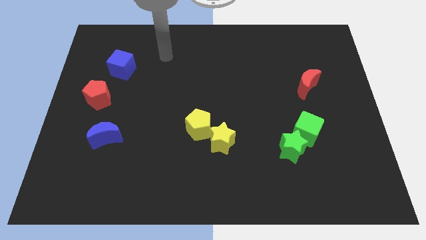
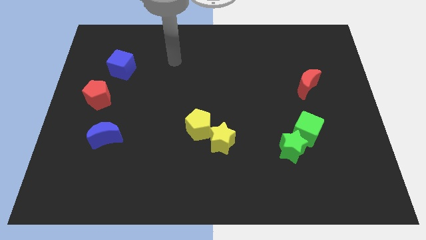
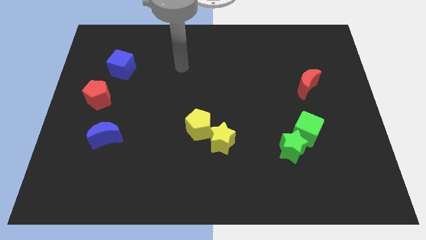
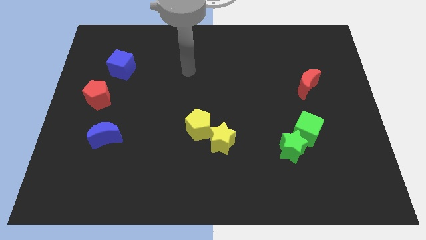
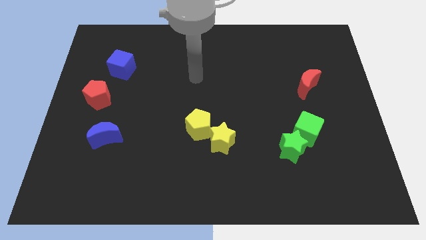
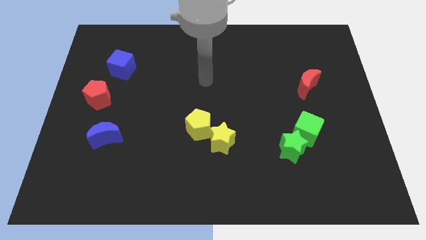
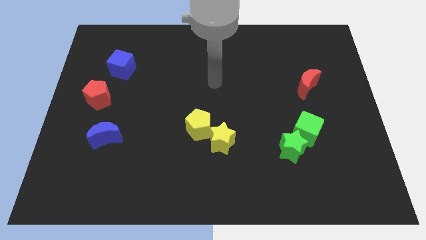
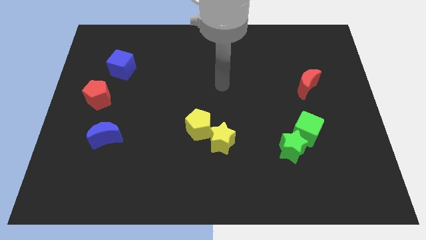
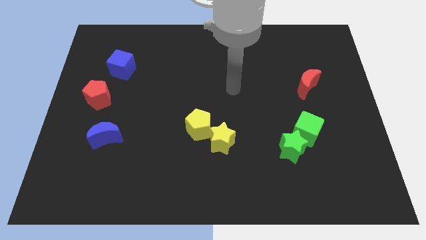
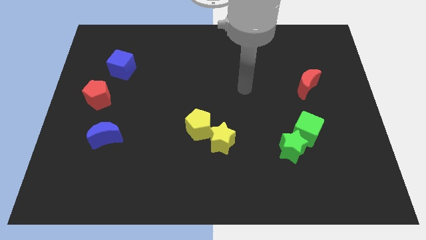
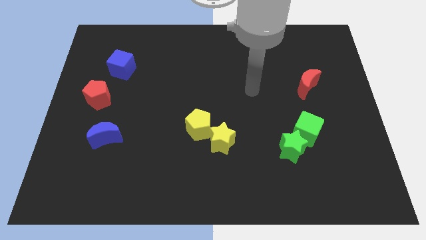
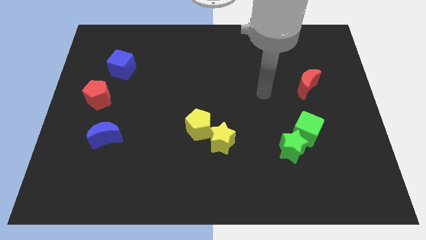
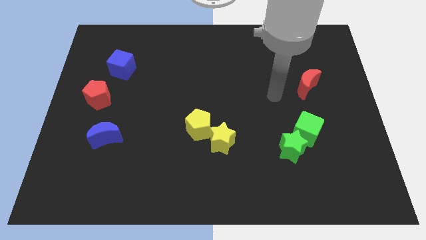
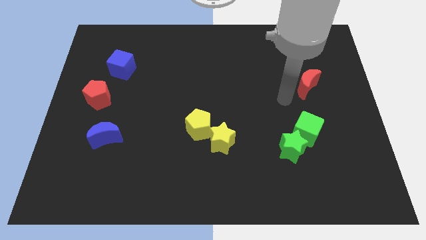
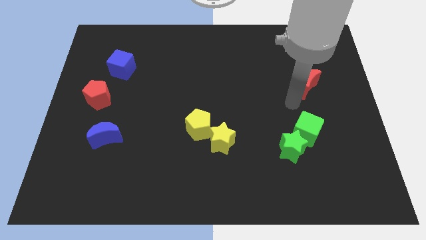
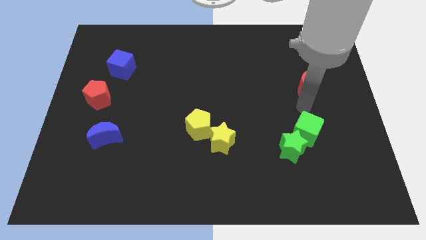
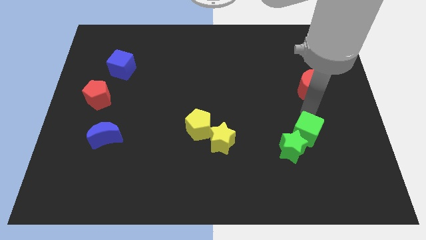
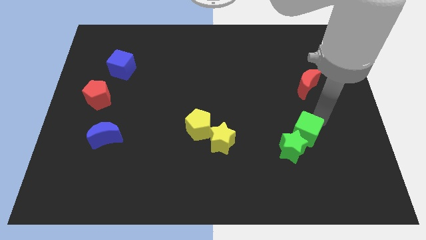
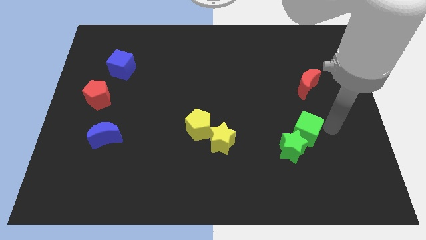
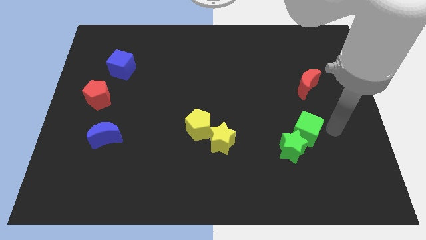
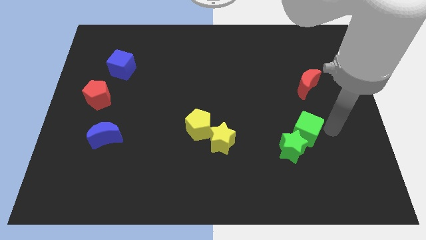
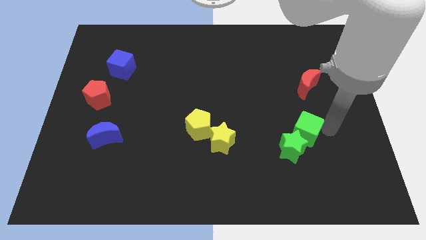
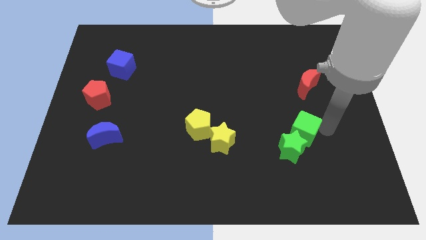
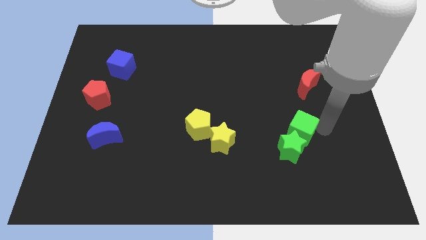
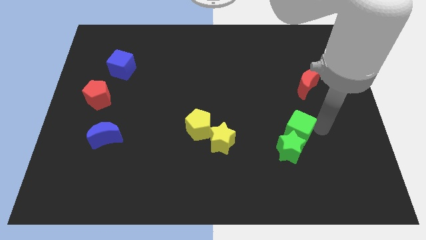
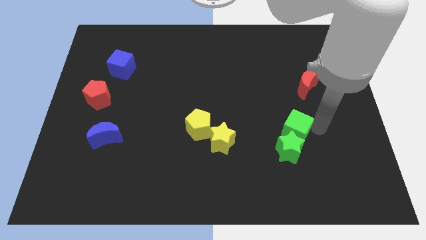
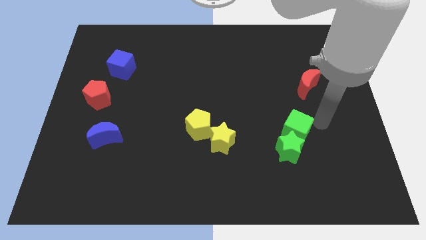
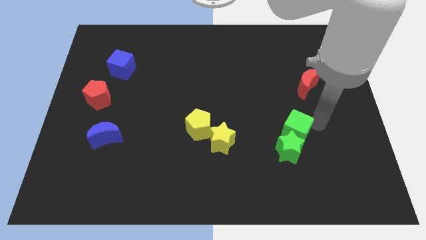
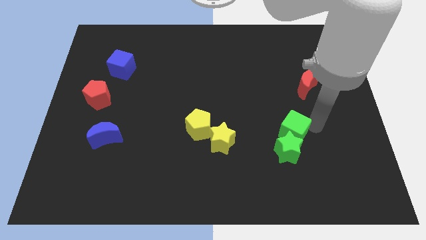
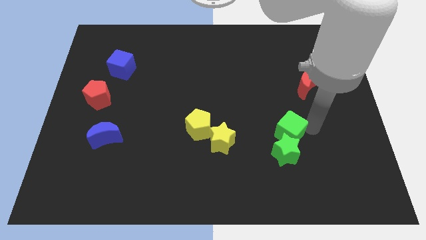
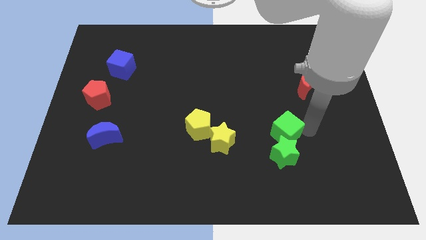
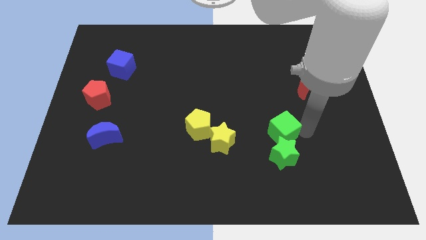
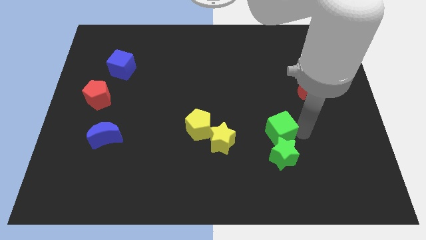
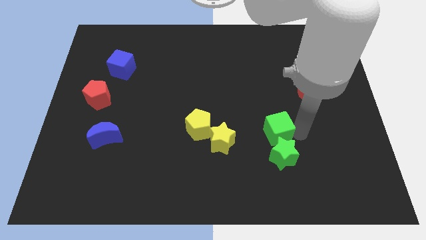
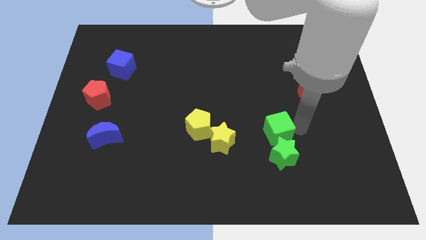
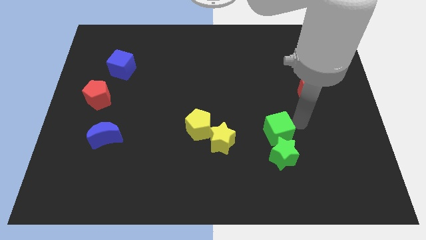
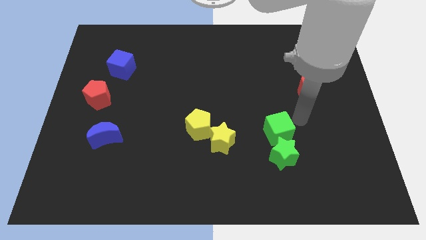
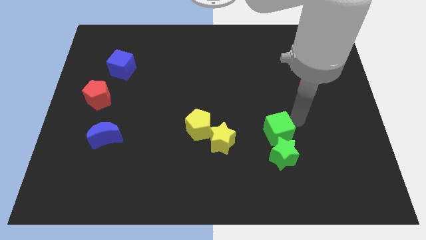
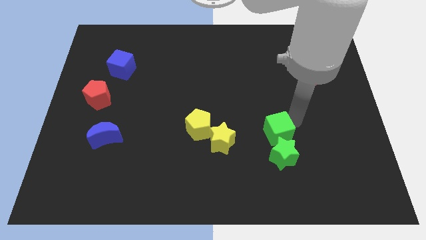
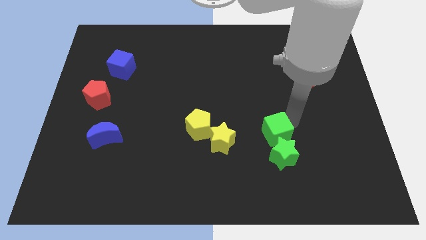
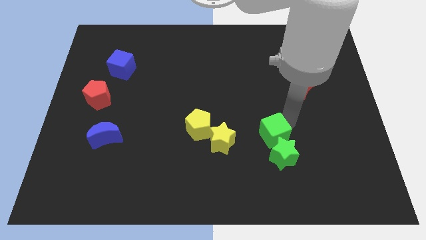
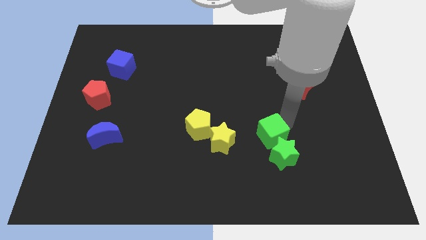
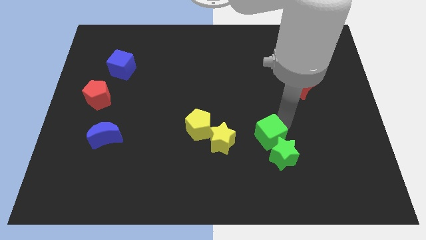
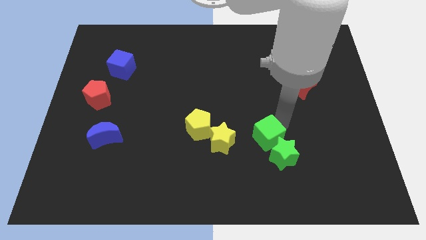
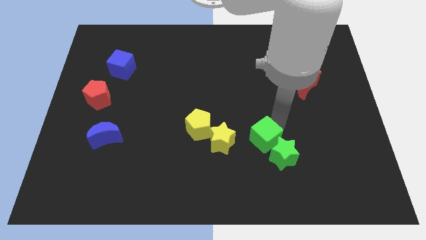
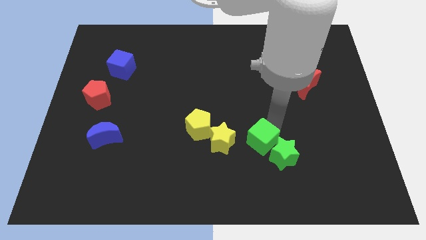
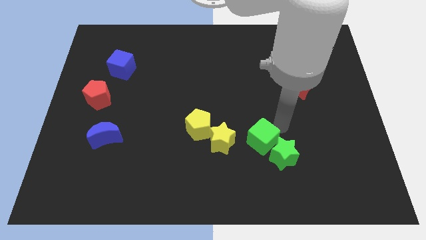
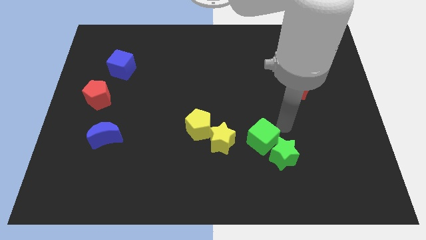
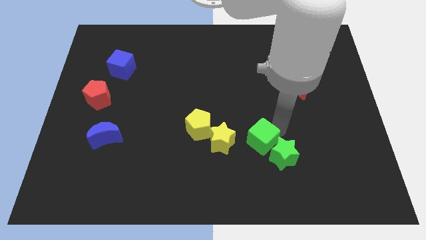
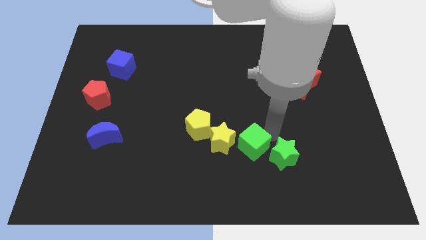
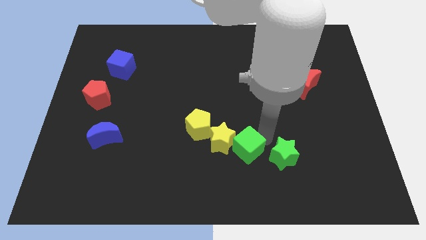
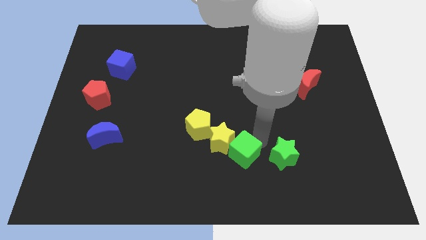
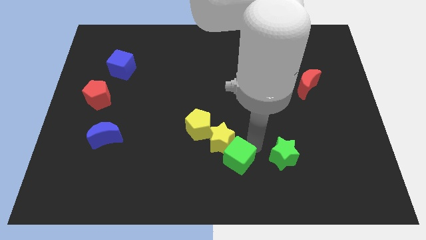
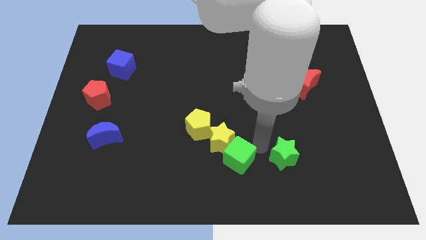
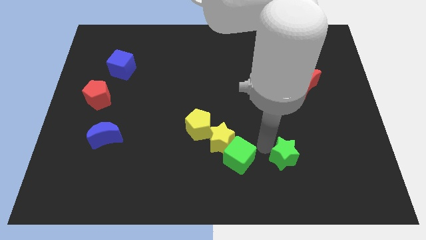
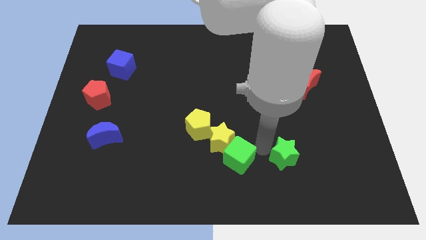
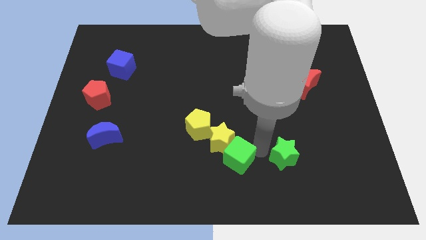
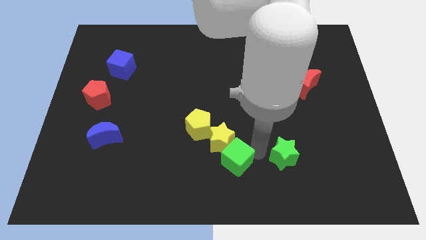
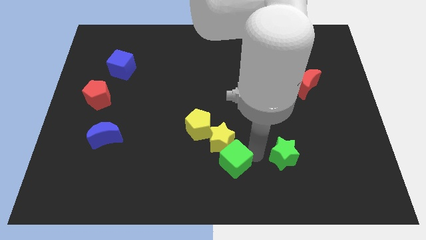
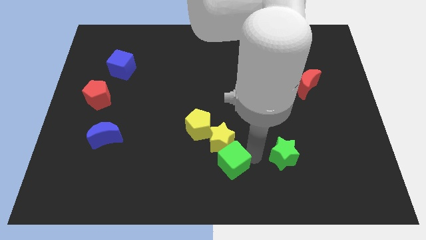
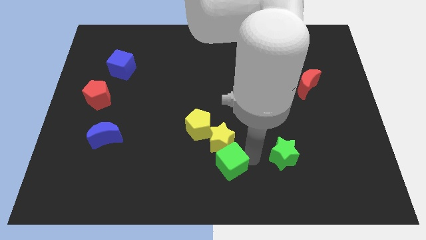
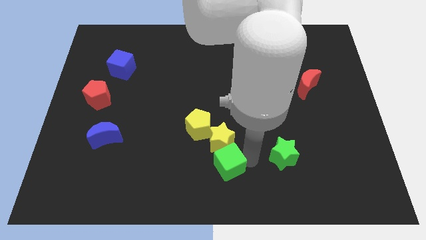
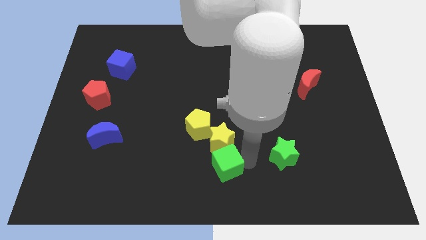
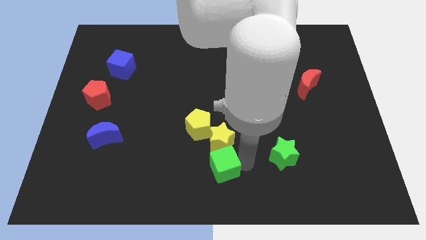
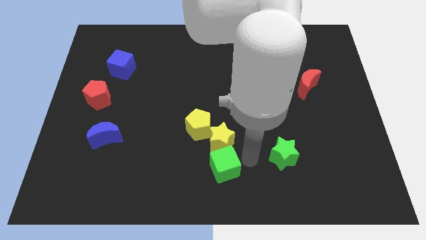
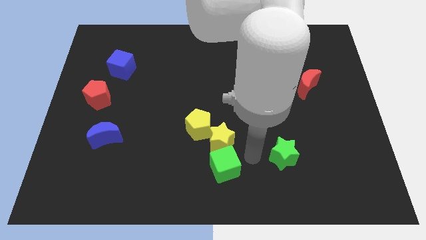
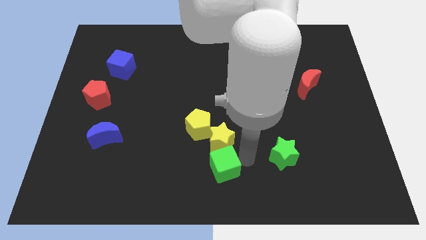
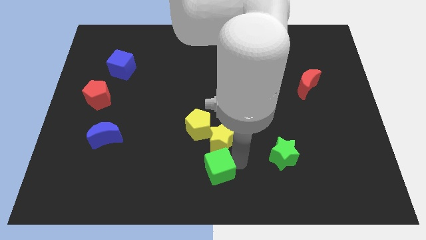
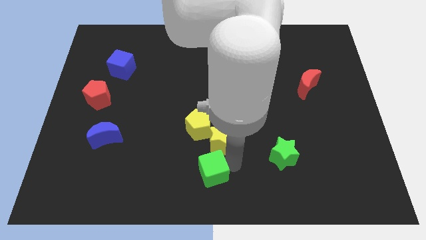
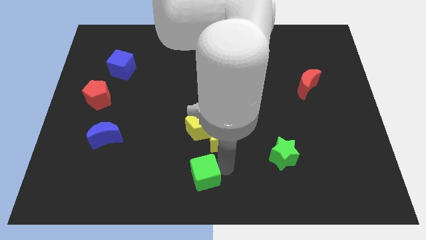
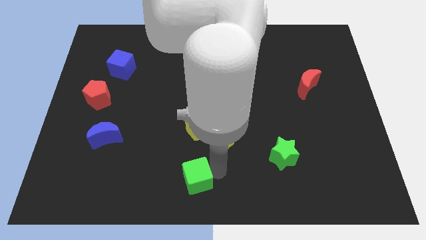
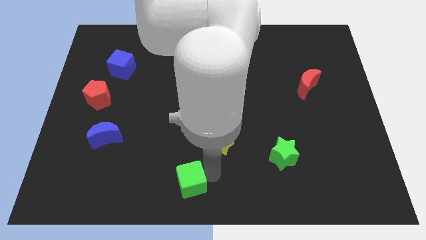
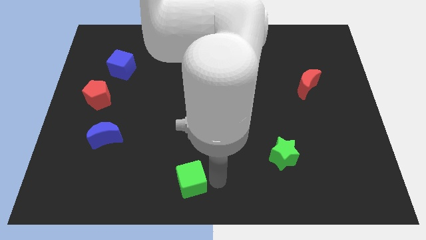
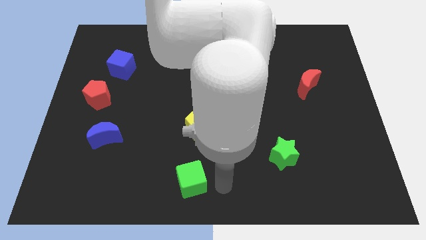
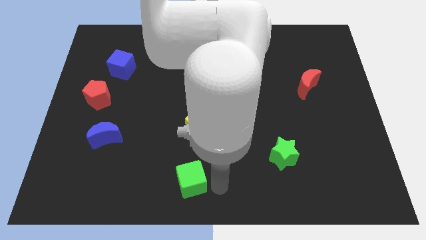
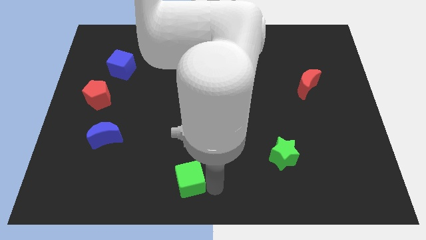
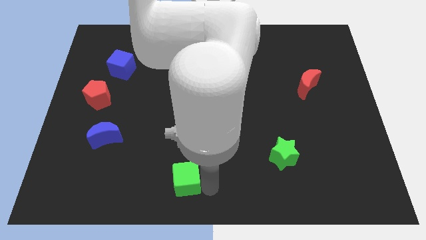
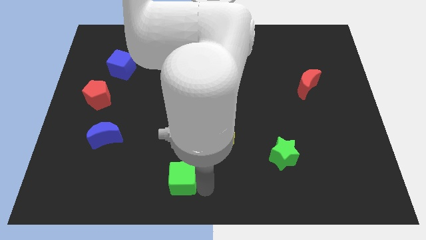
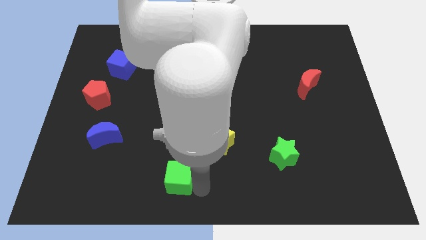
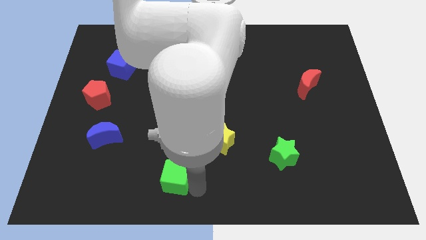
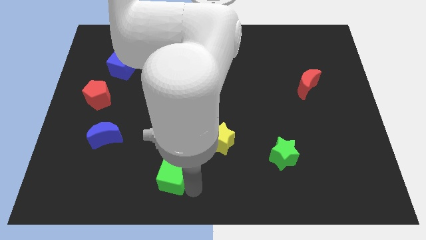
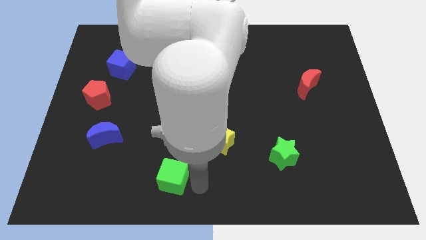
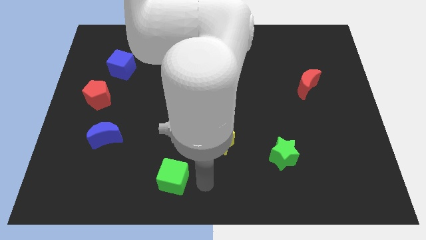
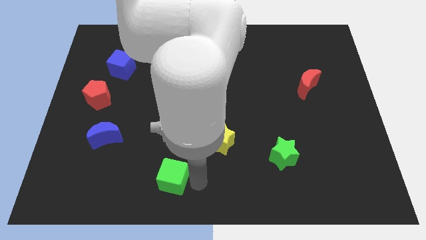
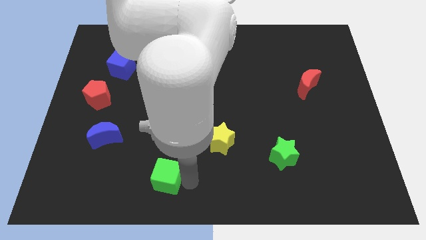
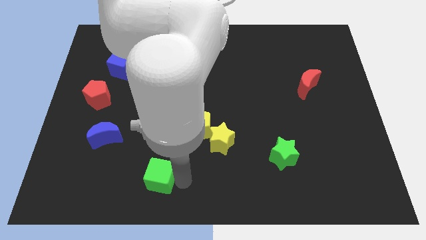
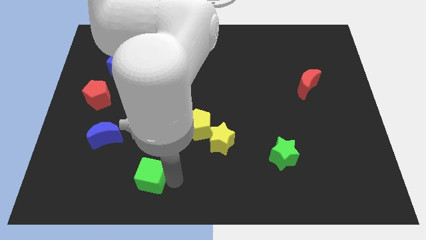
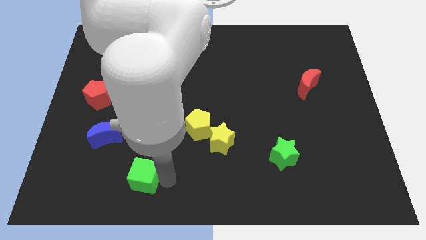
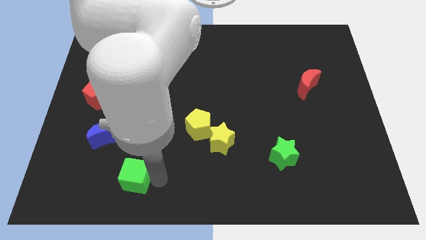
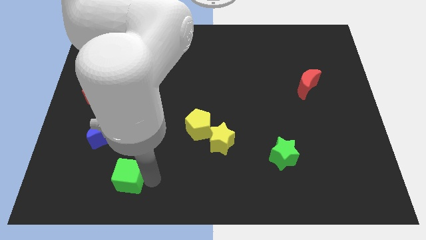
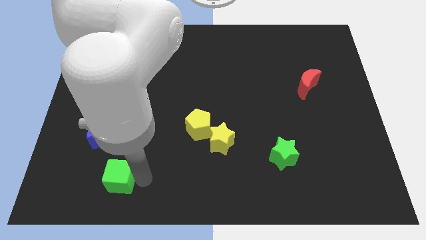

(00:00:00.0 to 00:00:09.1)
slide the green cube to the bottom side of the blue moon
